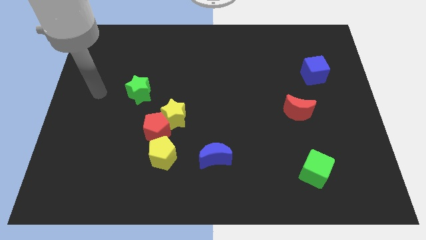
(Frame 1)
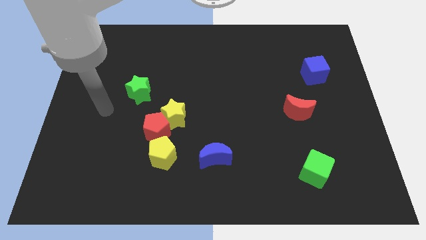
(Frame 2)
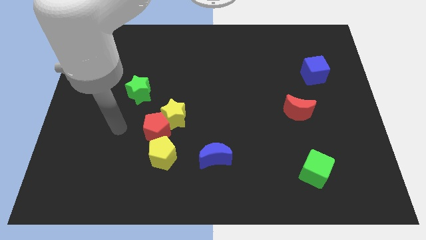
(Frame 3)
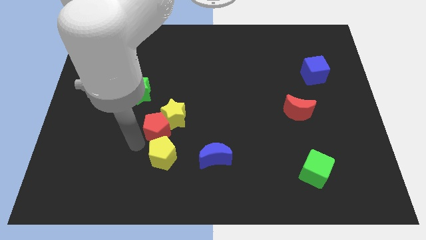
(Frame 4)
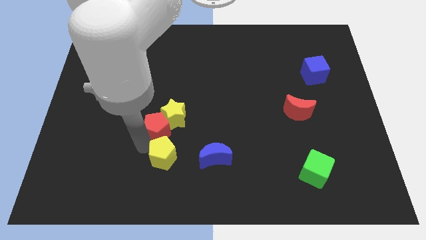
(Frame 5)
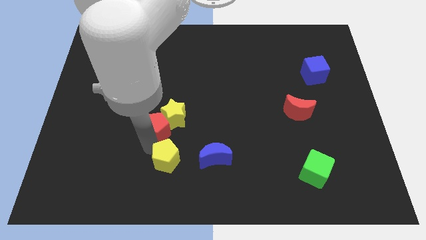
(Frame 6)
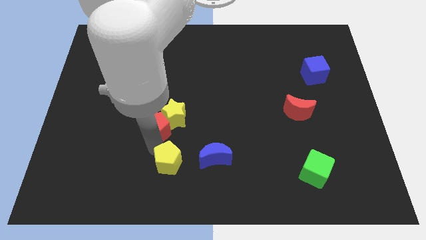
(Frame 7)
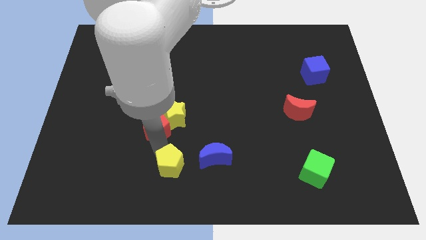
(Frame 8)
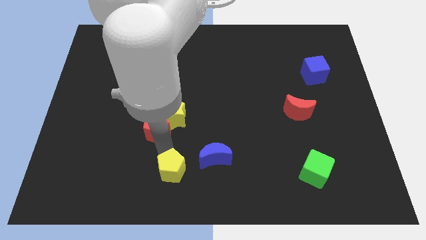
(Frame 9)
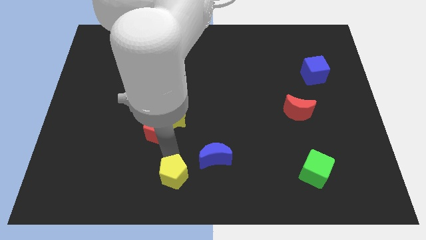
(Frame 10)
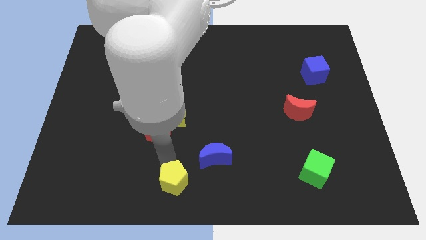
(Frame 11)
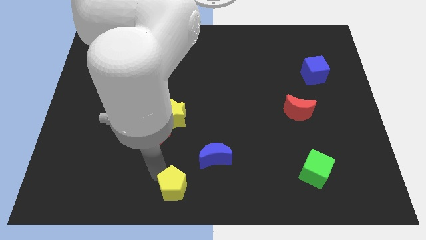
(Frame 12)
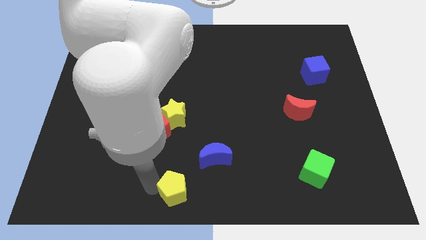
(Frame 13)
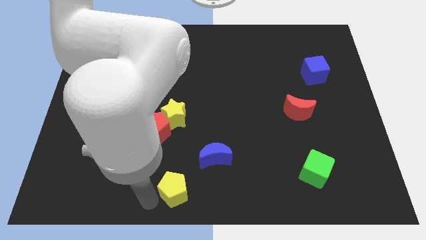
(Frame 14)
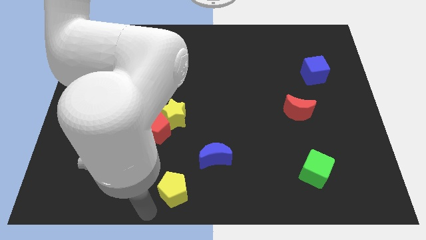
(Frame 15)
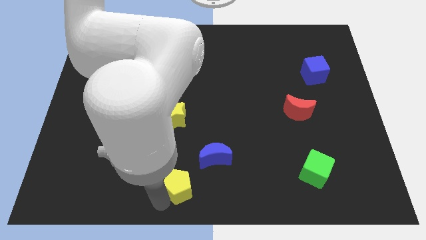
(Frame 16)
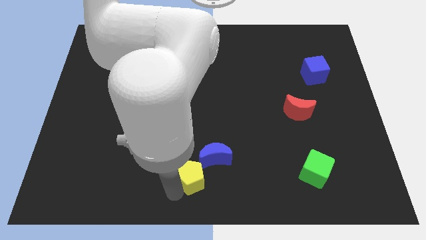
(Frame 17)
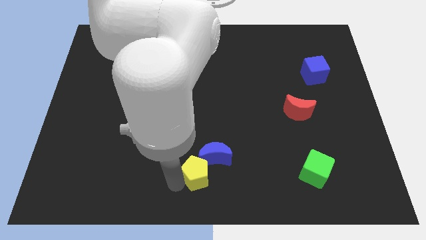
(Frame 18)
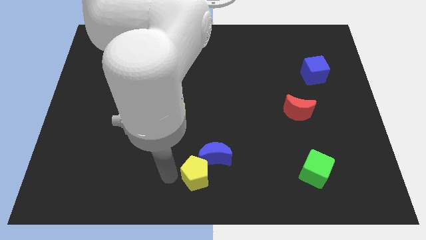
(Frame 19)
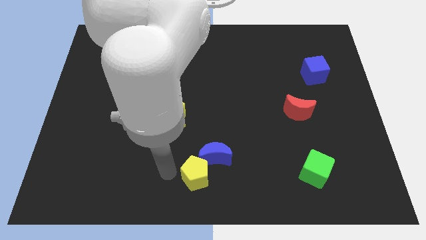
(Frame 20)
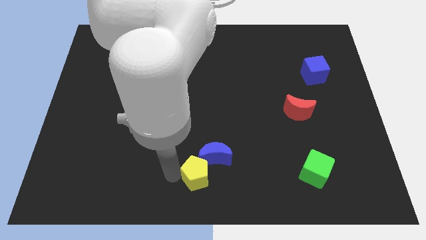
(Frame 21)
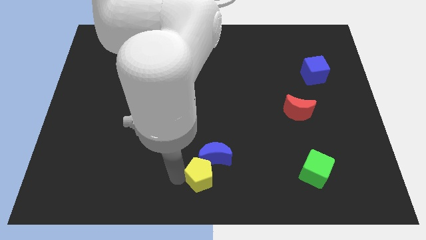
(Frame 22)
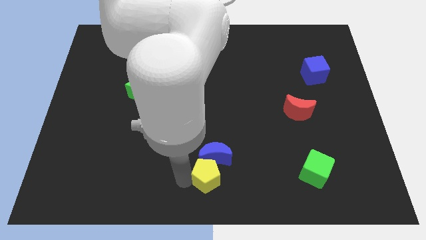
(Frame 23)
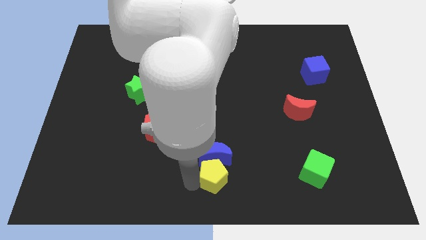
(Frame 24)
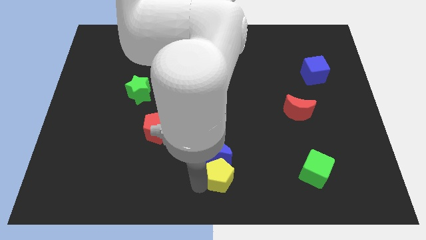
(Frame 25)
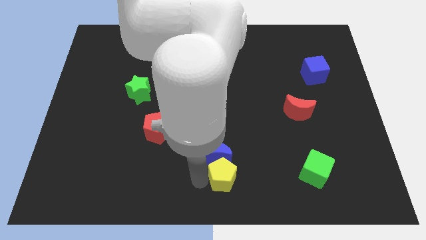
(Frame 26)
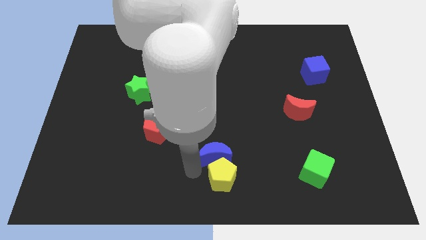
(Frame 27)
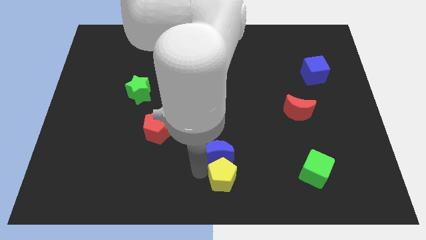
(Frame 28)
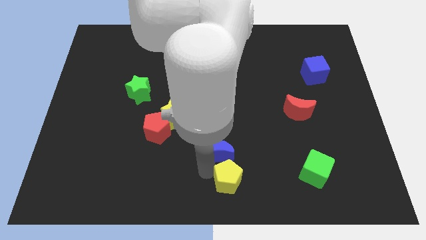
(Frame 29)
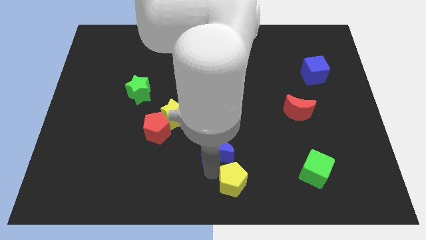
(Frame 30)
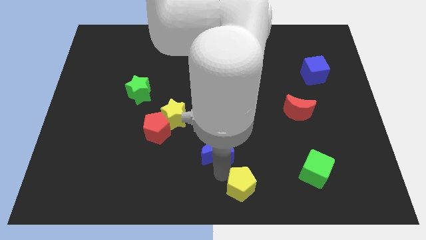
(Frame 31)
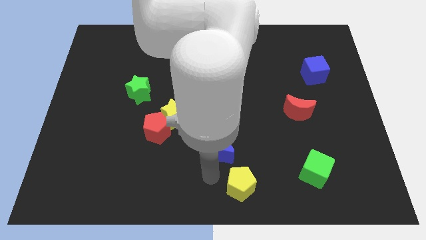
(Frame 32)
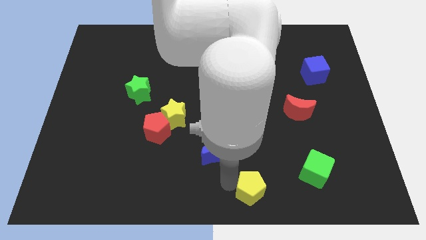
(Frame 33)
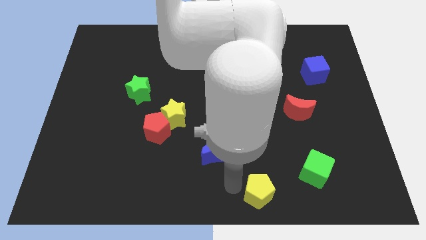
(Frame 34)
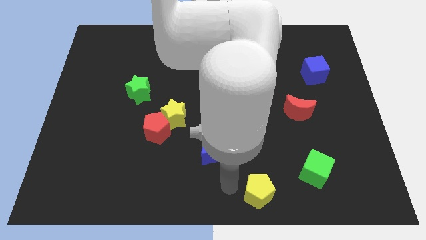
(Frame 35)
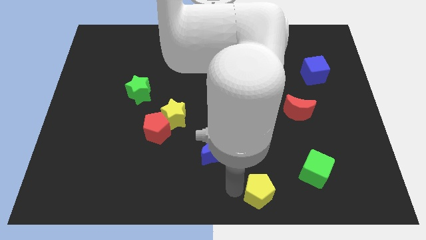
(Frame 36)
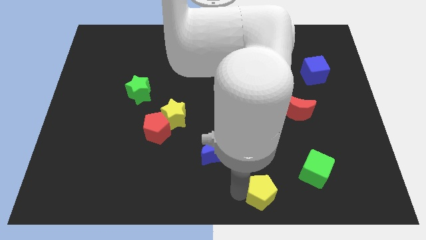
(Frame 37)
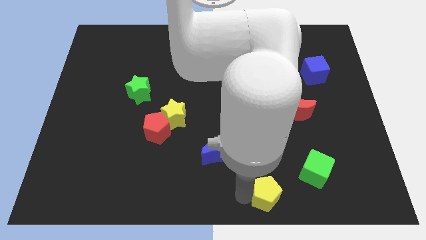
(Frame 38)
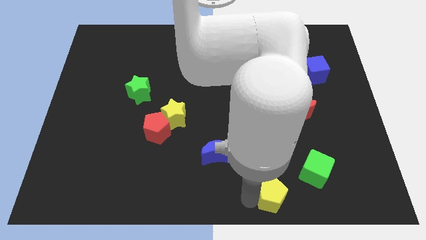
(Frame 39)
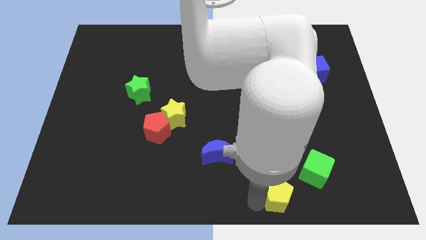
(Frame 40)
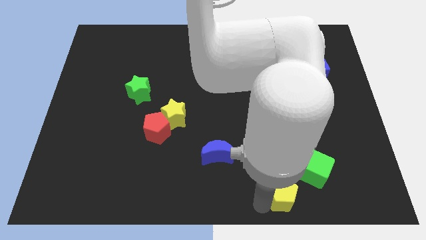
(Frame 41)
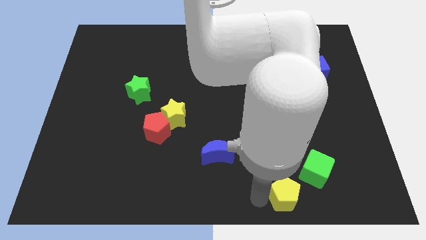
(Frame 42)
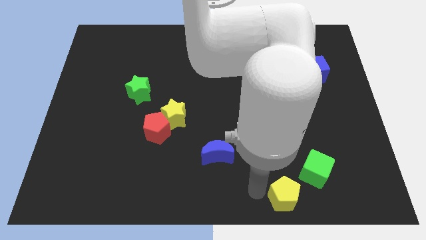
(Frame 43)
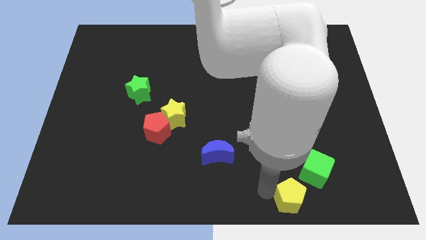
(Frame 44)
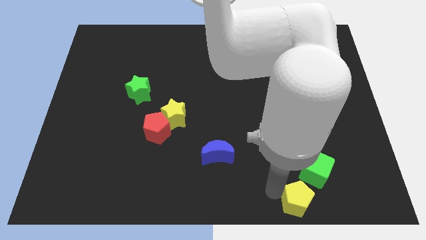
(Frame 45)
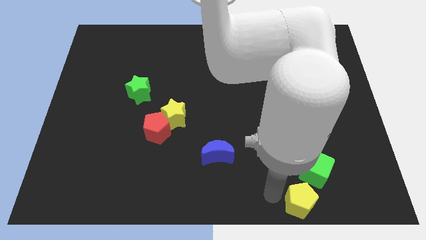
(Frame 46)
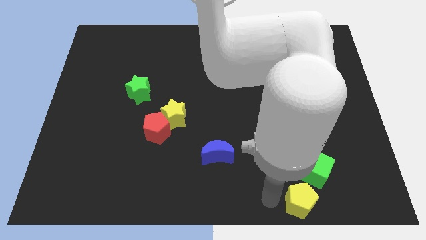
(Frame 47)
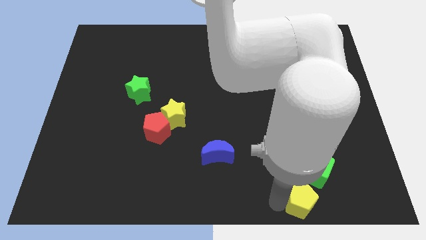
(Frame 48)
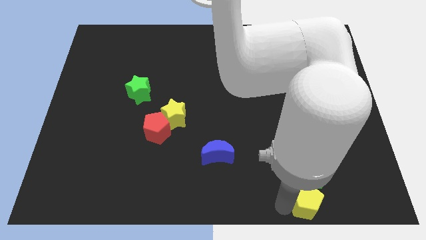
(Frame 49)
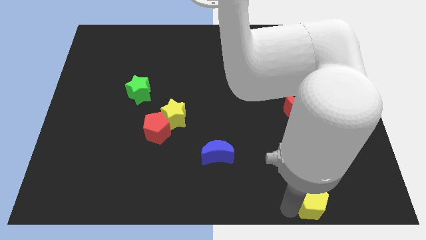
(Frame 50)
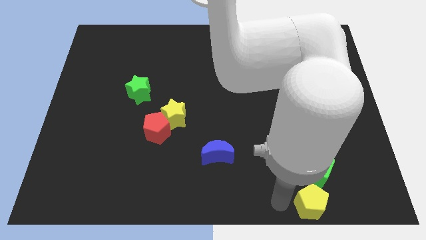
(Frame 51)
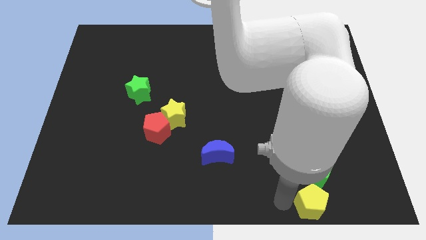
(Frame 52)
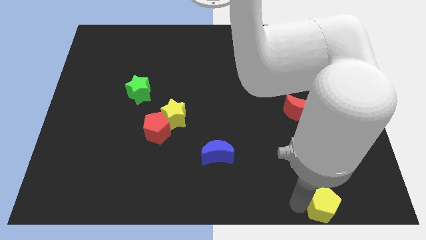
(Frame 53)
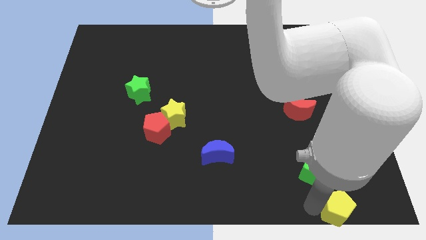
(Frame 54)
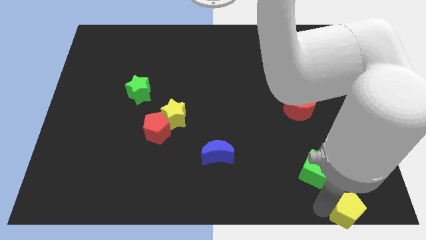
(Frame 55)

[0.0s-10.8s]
slide the yellow pentagon to the bottom right
